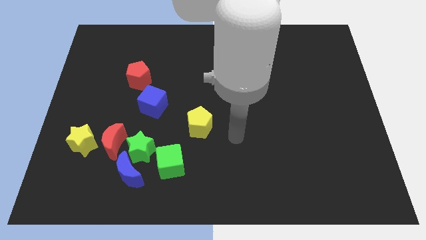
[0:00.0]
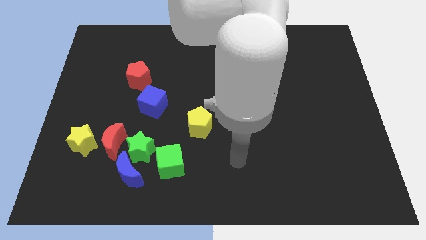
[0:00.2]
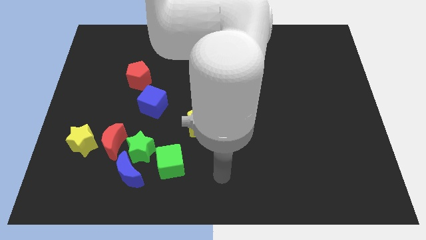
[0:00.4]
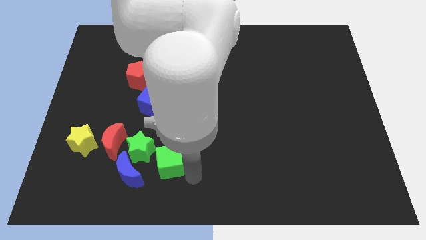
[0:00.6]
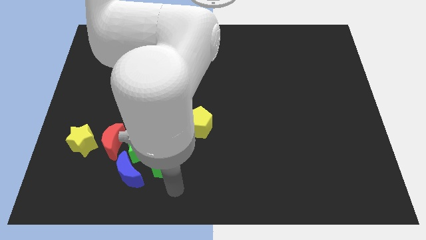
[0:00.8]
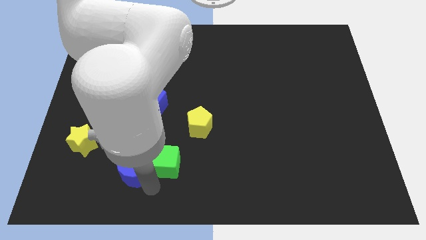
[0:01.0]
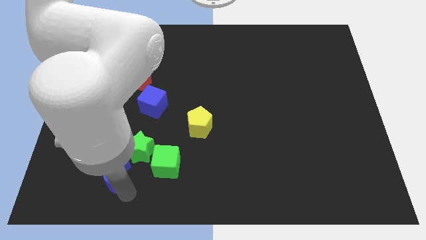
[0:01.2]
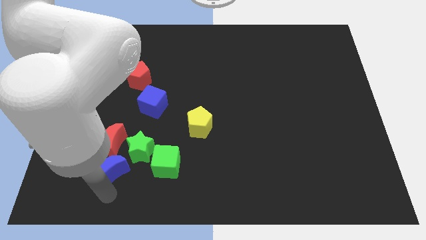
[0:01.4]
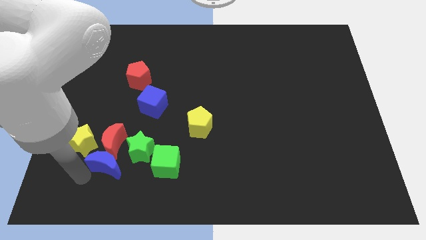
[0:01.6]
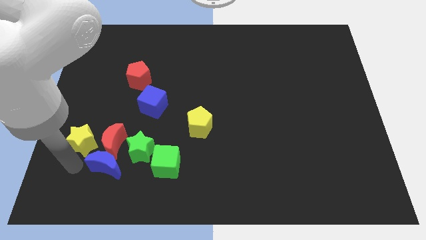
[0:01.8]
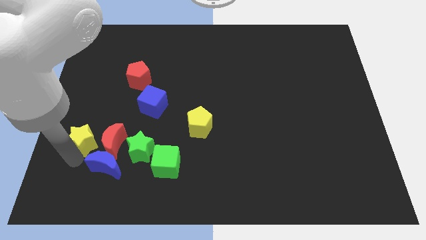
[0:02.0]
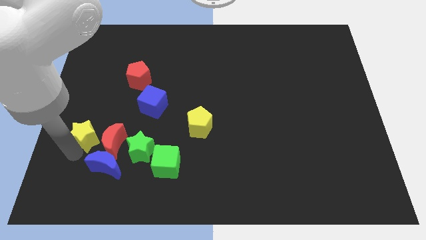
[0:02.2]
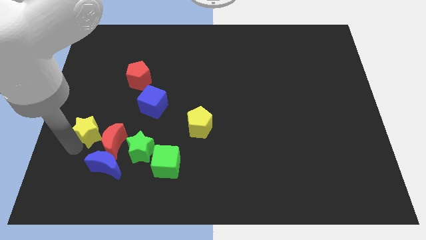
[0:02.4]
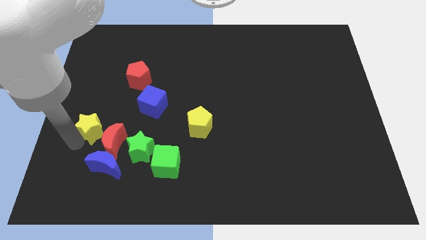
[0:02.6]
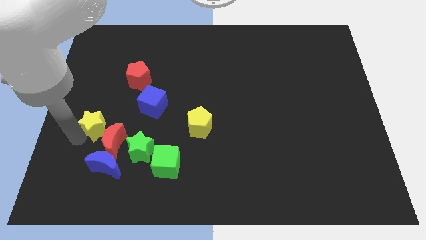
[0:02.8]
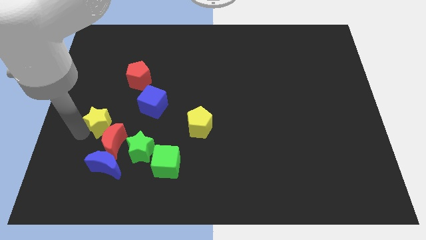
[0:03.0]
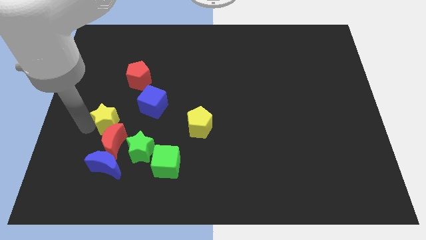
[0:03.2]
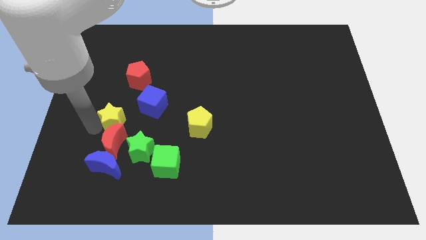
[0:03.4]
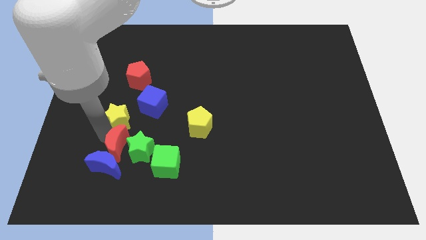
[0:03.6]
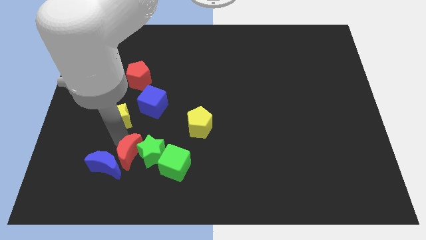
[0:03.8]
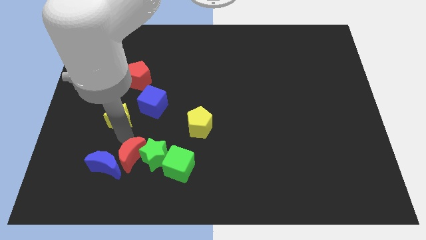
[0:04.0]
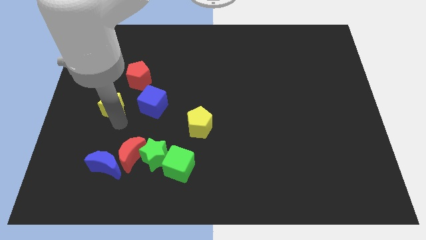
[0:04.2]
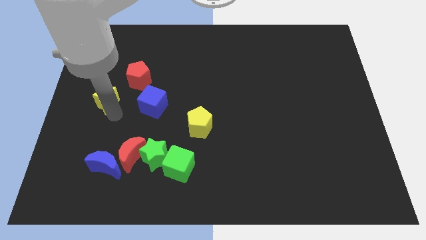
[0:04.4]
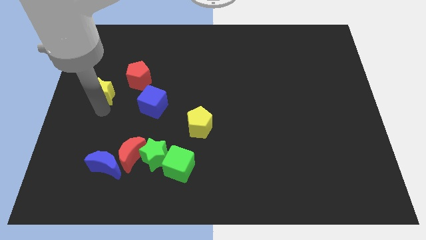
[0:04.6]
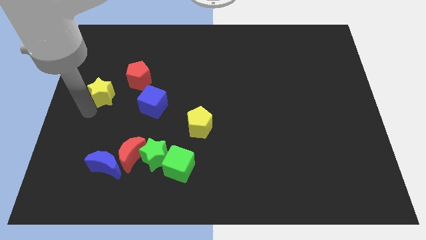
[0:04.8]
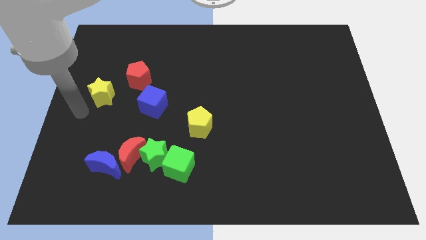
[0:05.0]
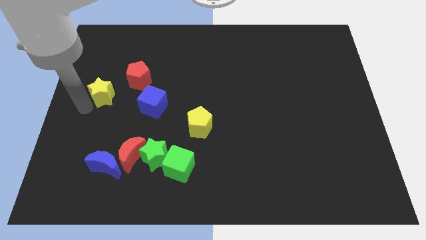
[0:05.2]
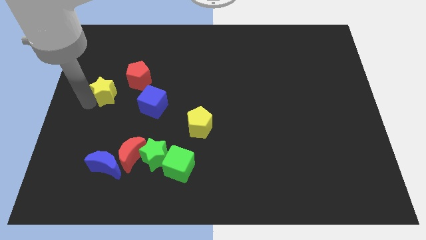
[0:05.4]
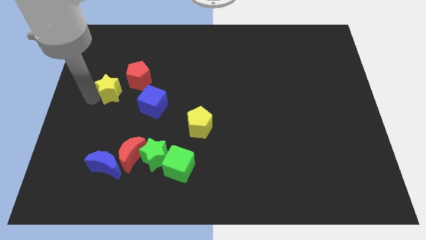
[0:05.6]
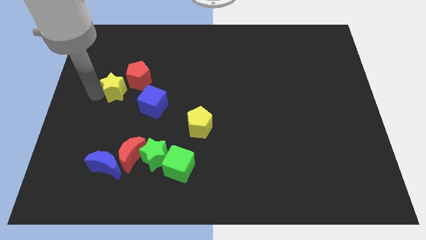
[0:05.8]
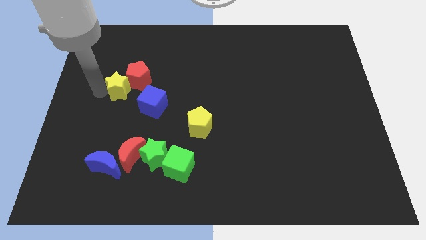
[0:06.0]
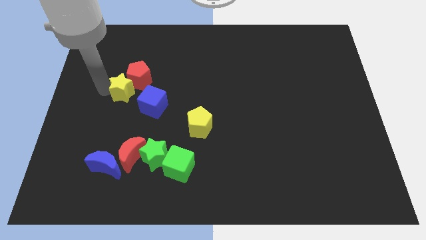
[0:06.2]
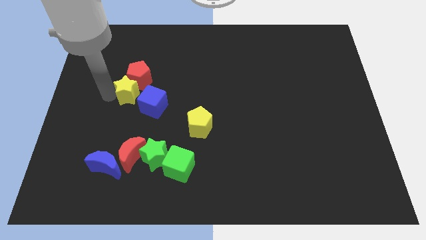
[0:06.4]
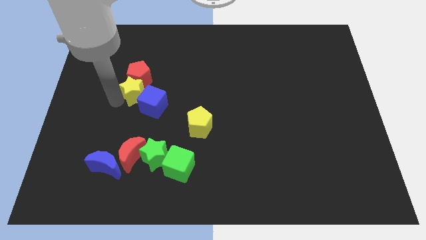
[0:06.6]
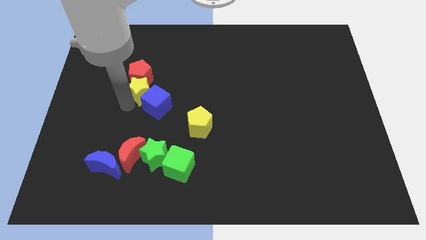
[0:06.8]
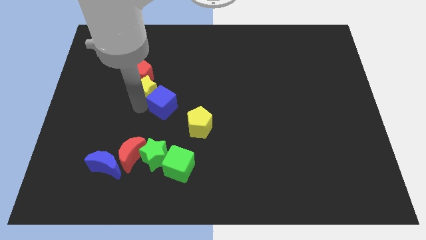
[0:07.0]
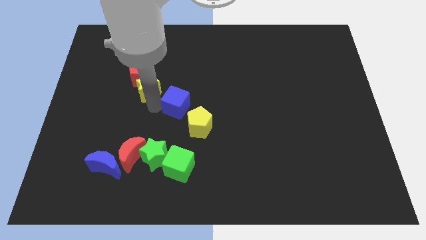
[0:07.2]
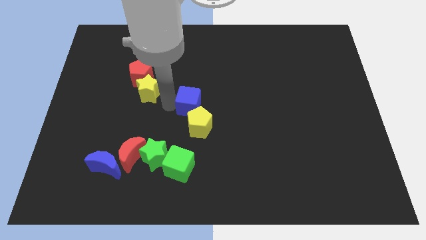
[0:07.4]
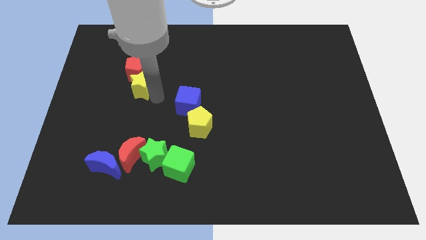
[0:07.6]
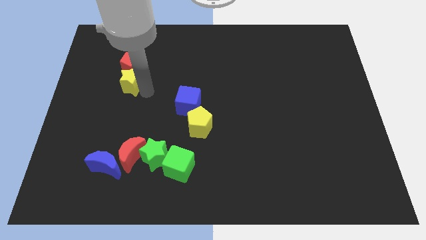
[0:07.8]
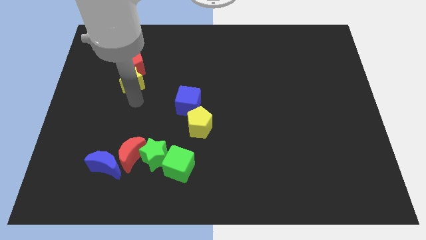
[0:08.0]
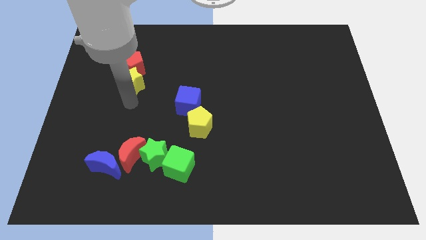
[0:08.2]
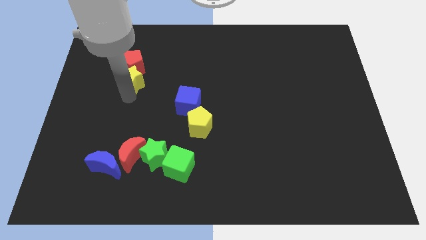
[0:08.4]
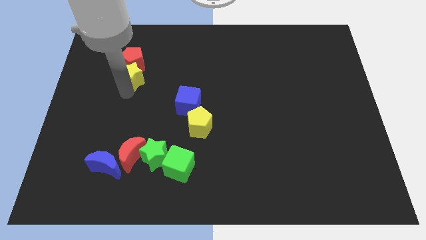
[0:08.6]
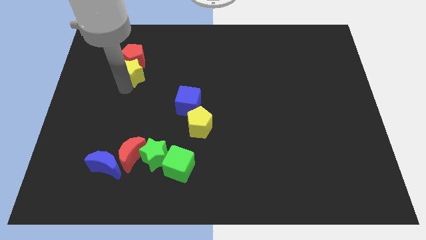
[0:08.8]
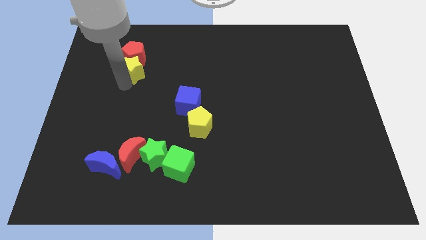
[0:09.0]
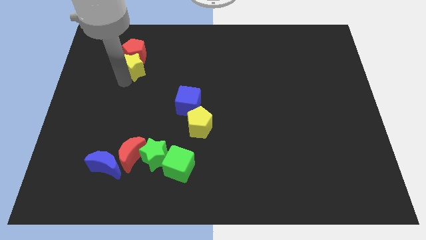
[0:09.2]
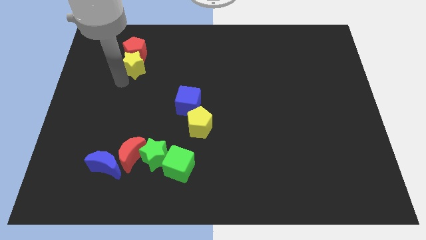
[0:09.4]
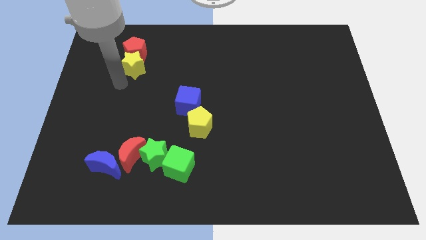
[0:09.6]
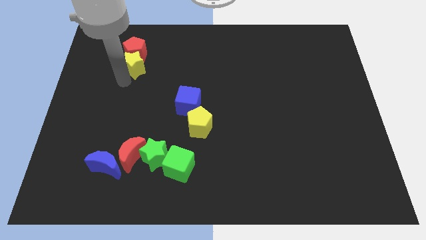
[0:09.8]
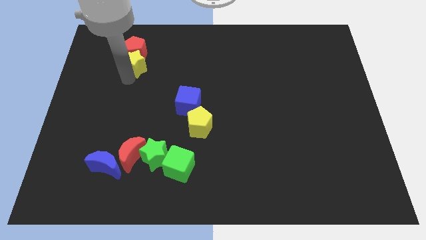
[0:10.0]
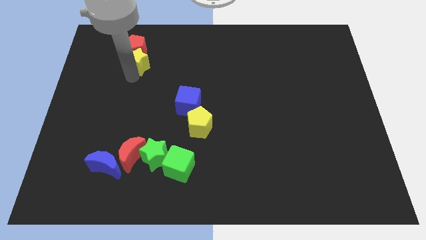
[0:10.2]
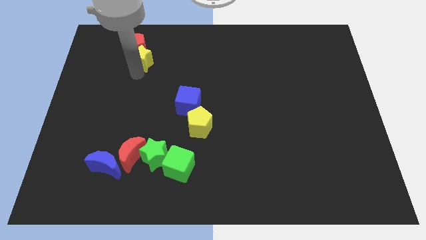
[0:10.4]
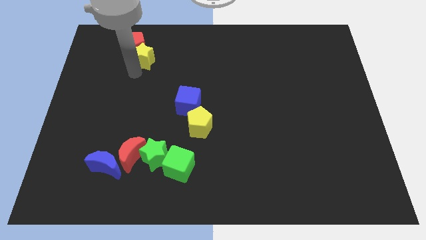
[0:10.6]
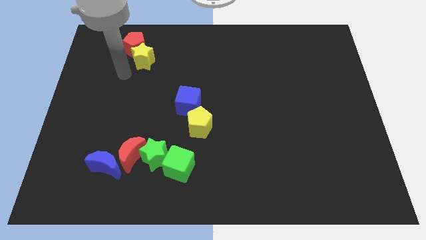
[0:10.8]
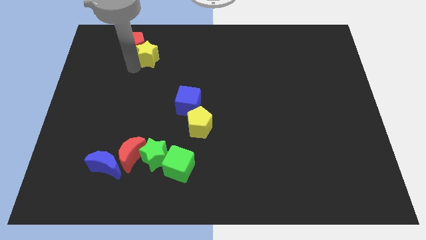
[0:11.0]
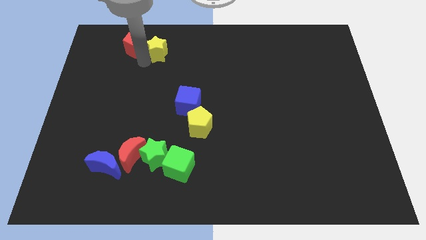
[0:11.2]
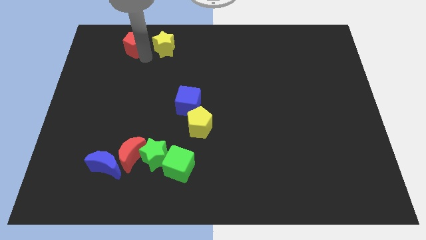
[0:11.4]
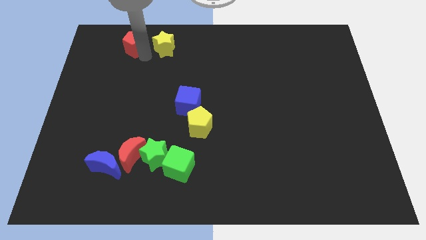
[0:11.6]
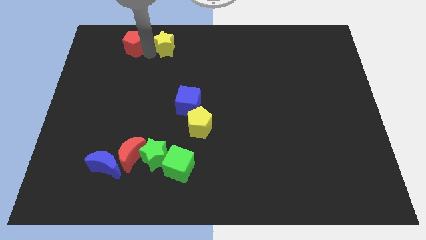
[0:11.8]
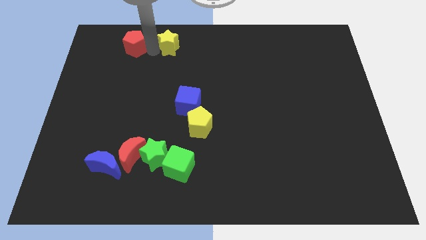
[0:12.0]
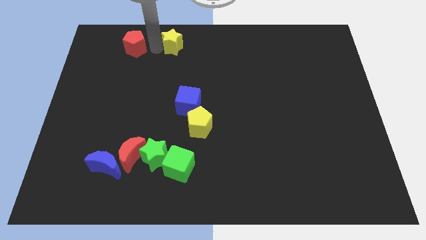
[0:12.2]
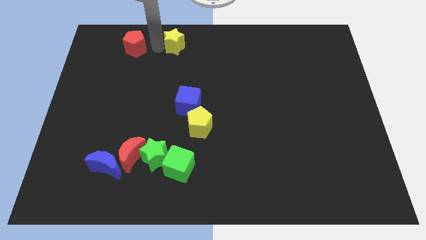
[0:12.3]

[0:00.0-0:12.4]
put the yellow star to the top

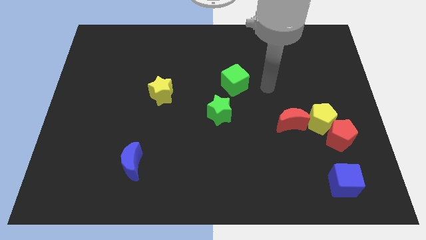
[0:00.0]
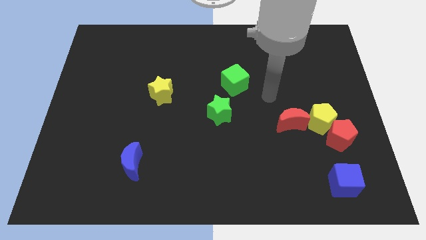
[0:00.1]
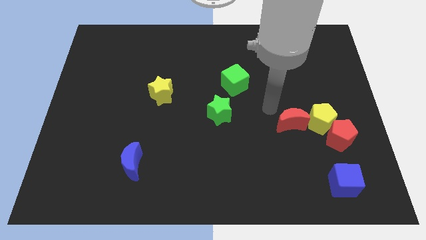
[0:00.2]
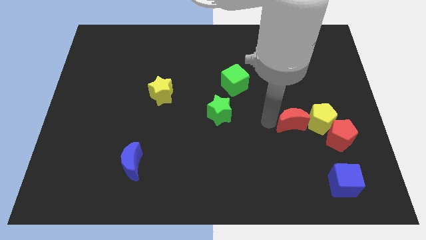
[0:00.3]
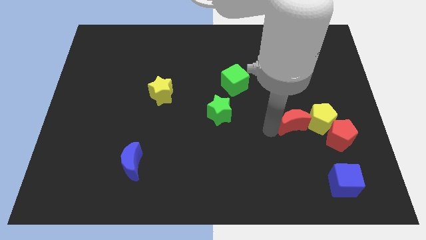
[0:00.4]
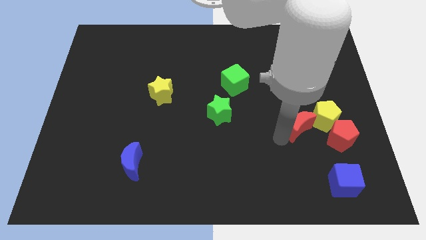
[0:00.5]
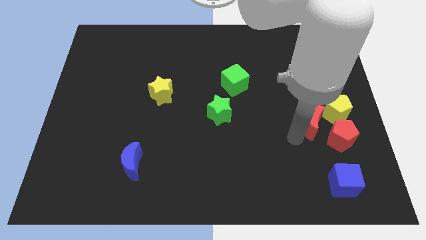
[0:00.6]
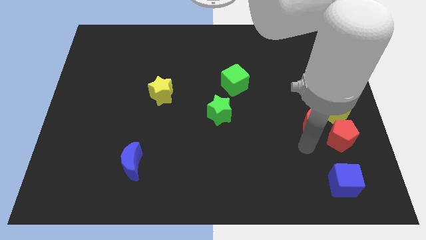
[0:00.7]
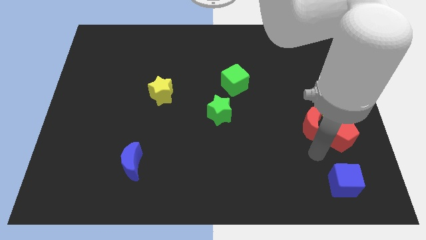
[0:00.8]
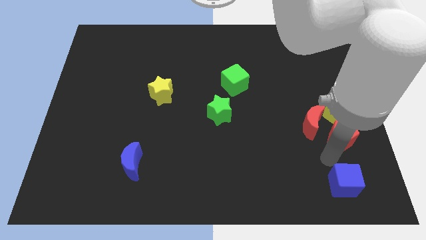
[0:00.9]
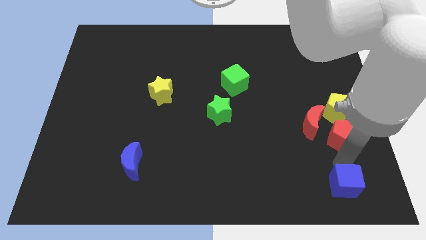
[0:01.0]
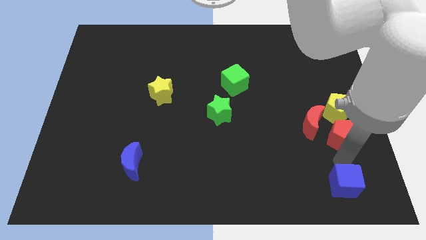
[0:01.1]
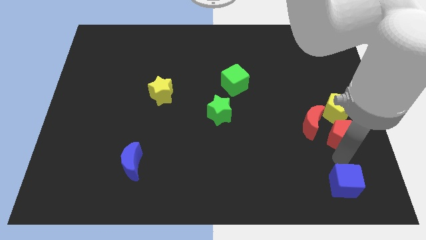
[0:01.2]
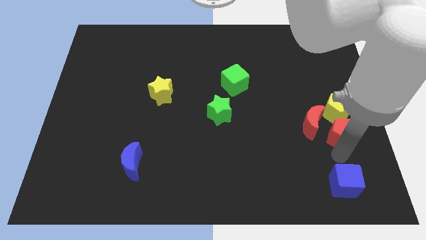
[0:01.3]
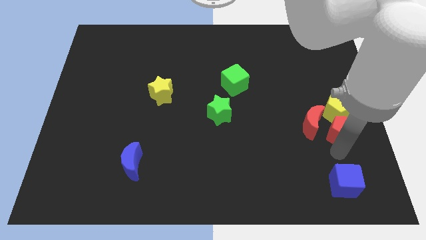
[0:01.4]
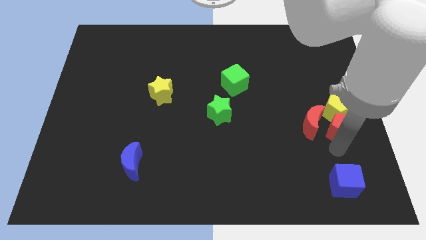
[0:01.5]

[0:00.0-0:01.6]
put the red pentagon to the center right
